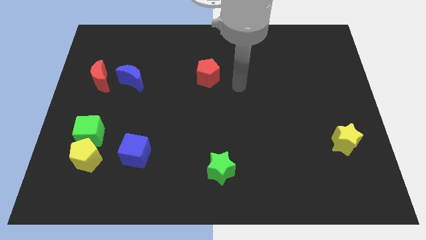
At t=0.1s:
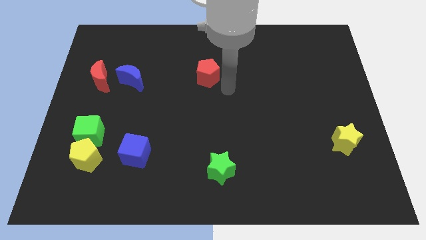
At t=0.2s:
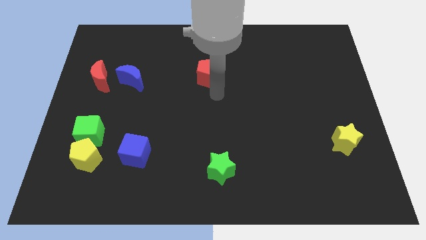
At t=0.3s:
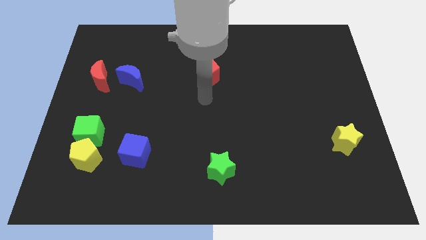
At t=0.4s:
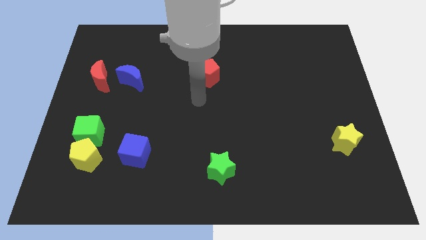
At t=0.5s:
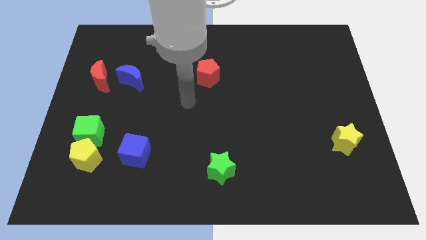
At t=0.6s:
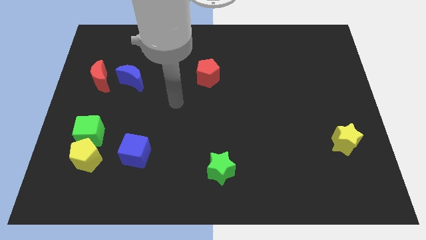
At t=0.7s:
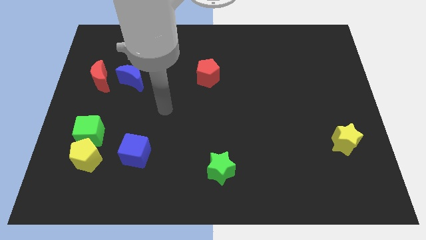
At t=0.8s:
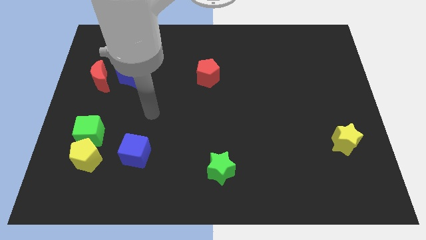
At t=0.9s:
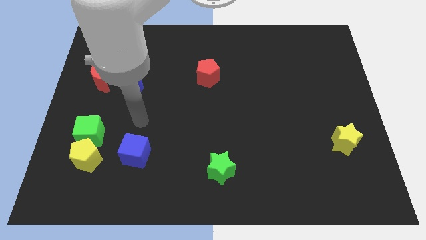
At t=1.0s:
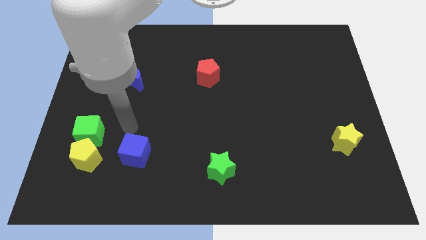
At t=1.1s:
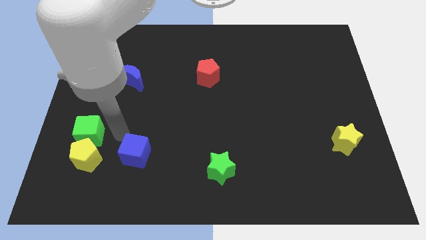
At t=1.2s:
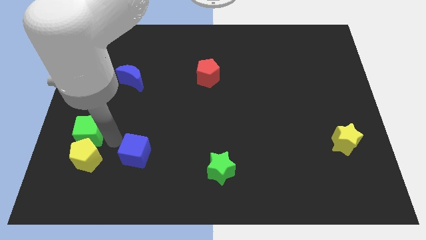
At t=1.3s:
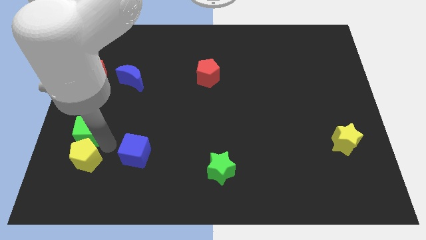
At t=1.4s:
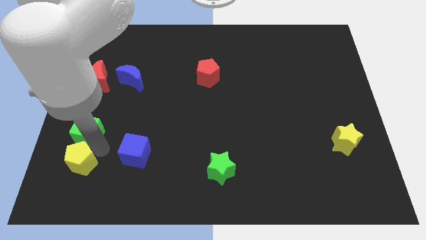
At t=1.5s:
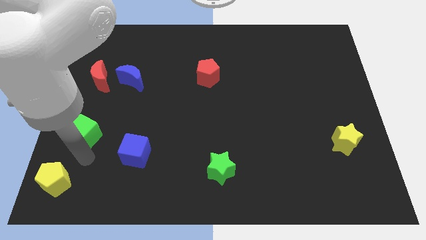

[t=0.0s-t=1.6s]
pull the green cube apart from the yellow pentagon

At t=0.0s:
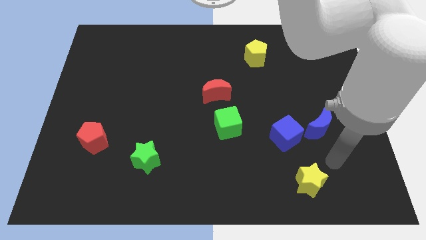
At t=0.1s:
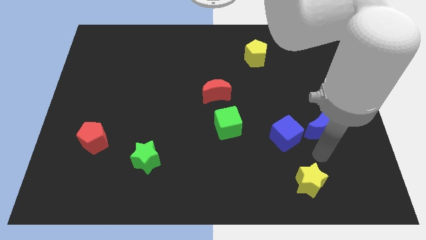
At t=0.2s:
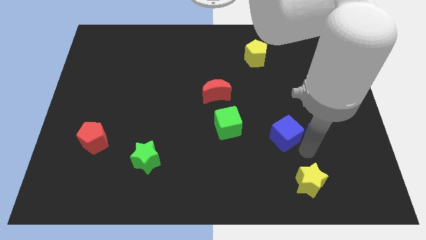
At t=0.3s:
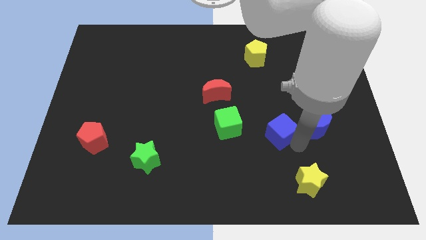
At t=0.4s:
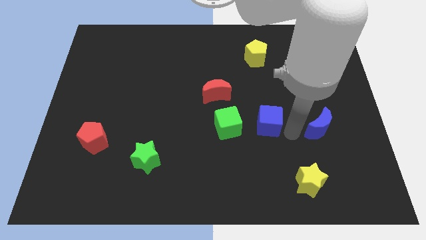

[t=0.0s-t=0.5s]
move the blue moon away from the blue cube

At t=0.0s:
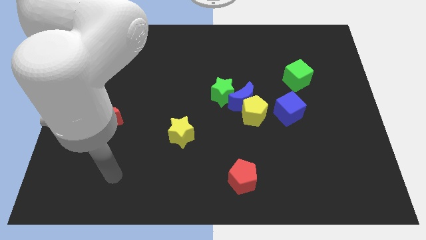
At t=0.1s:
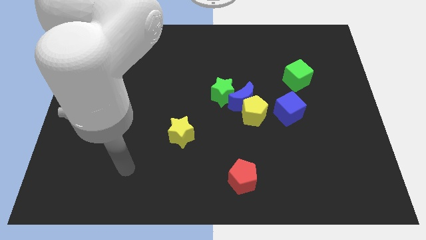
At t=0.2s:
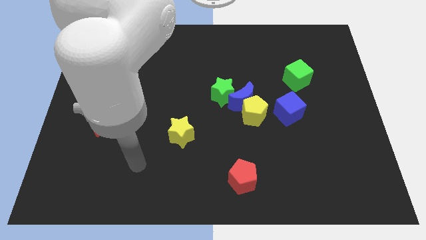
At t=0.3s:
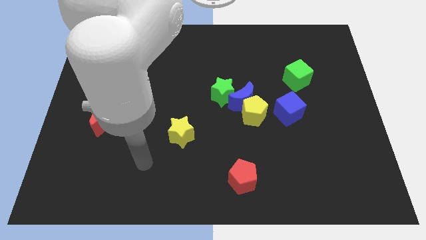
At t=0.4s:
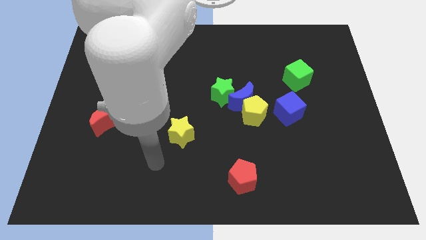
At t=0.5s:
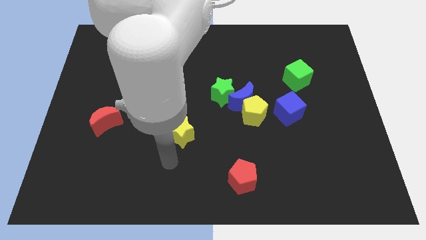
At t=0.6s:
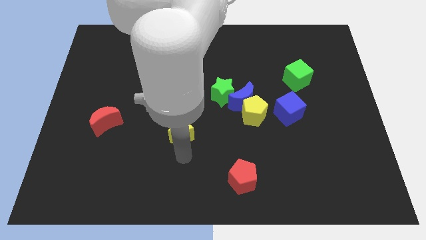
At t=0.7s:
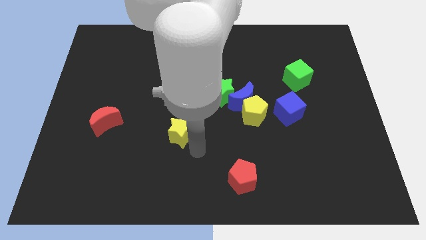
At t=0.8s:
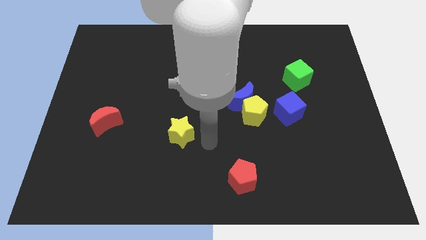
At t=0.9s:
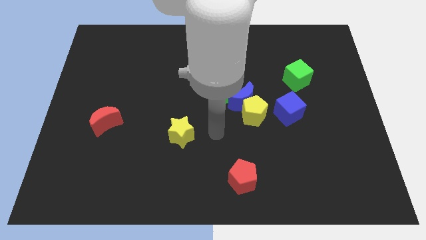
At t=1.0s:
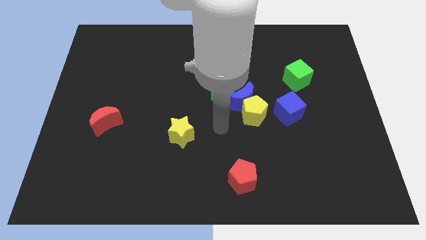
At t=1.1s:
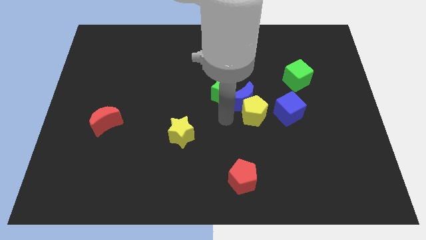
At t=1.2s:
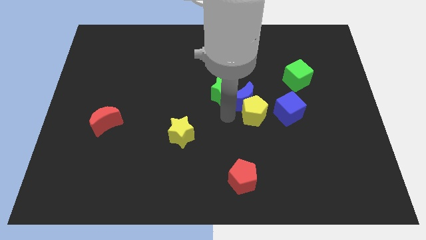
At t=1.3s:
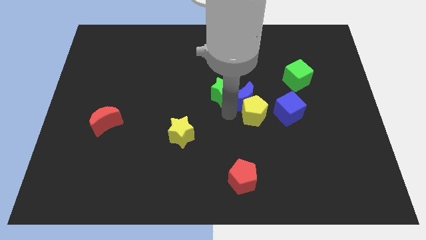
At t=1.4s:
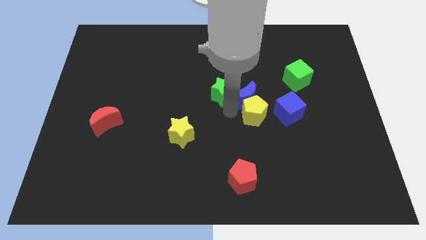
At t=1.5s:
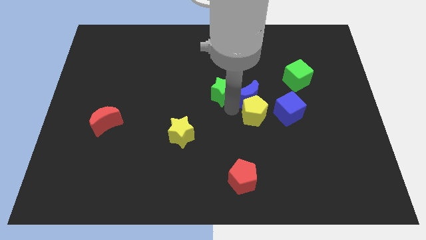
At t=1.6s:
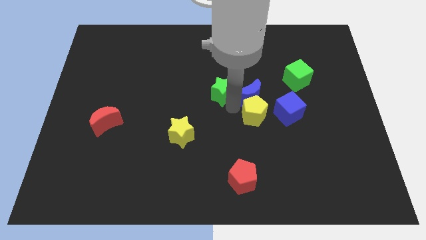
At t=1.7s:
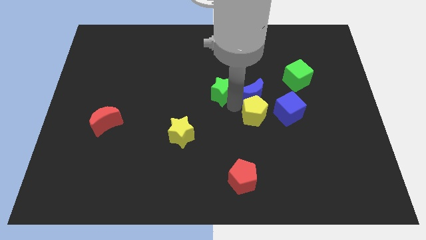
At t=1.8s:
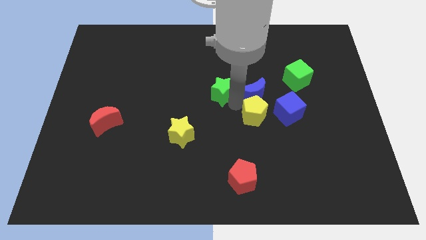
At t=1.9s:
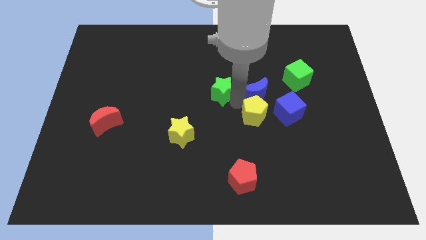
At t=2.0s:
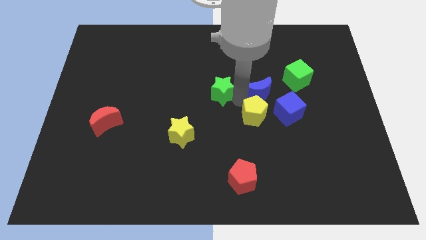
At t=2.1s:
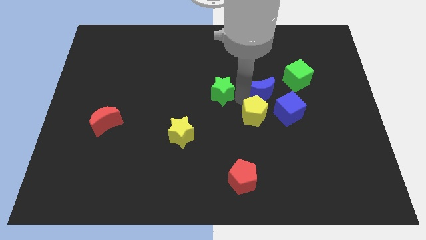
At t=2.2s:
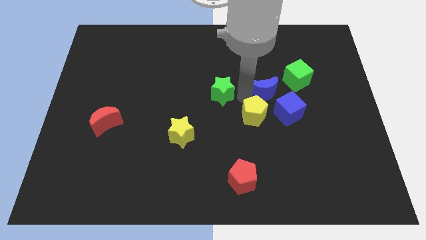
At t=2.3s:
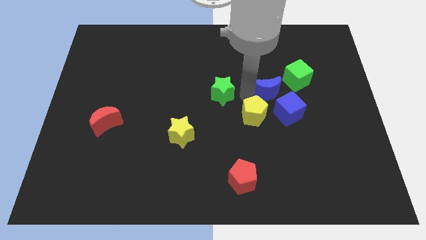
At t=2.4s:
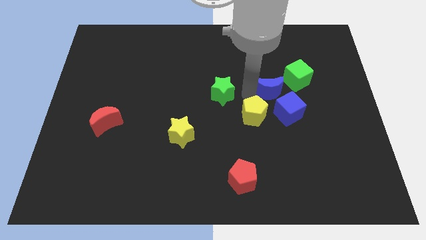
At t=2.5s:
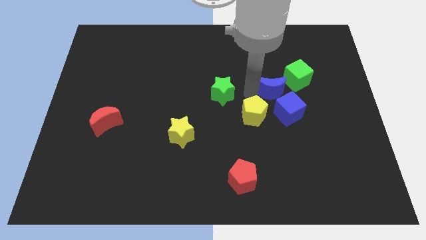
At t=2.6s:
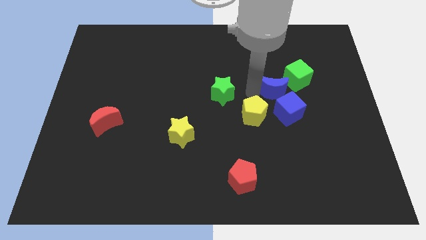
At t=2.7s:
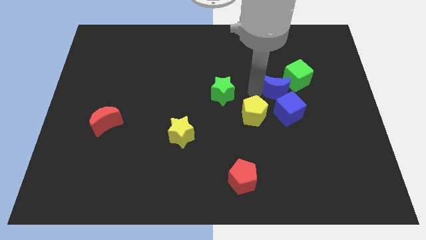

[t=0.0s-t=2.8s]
separate the blue moon from the yellow pentagon and green star

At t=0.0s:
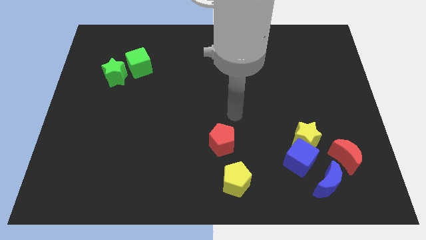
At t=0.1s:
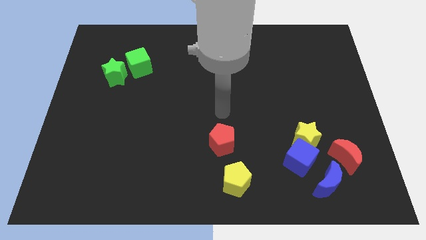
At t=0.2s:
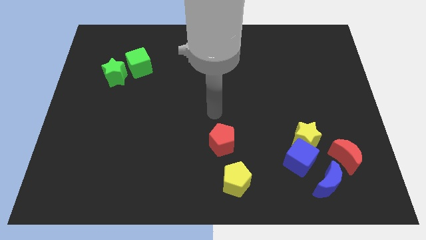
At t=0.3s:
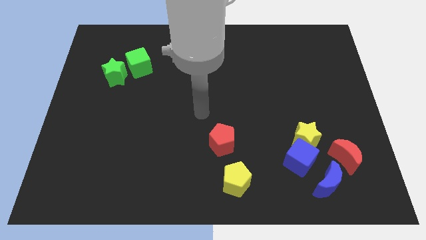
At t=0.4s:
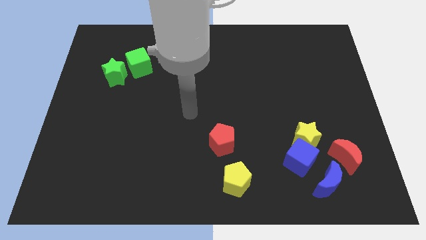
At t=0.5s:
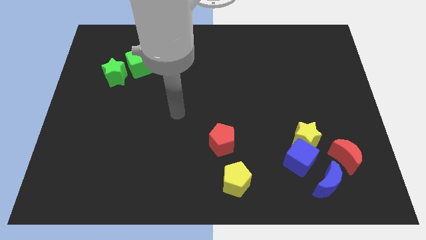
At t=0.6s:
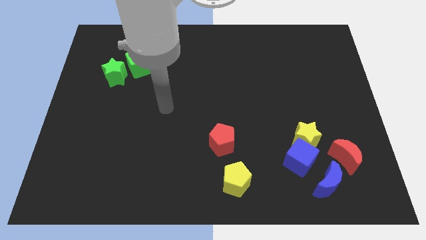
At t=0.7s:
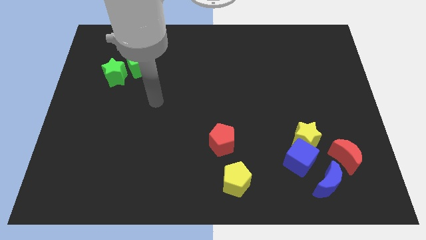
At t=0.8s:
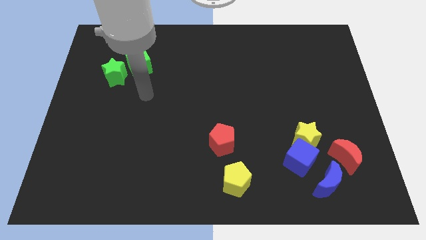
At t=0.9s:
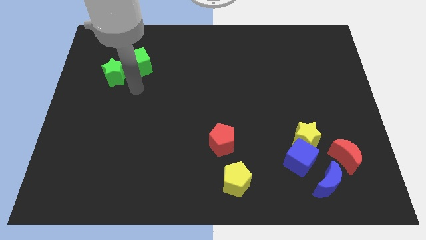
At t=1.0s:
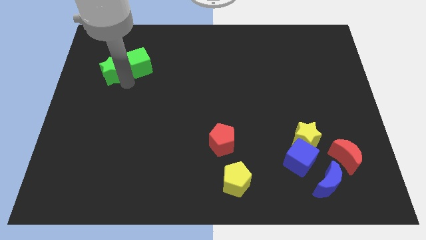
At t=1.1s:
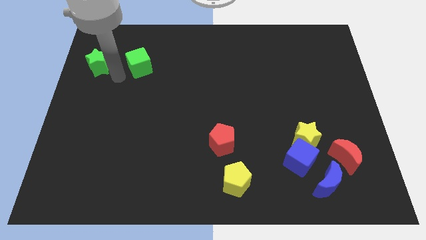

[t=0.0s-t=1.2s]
pull the green cube apart from the green star

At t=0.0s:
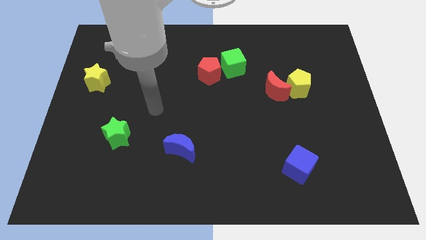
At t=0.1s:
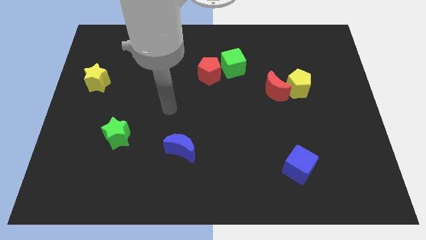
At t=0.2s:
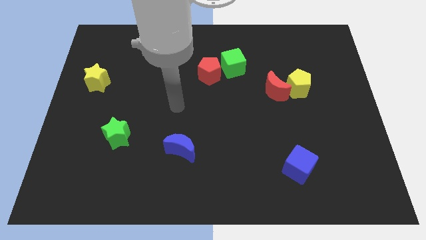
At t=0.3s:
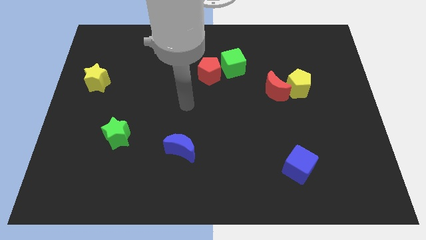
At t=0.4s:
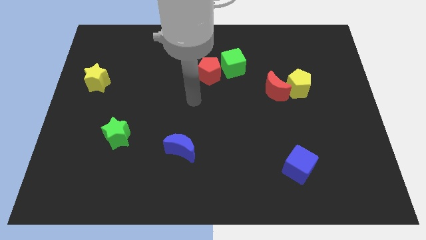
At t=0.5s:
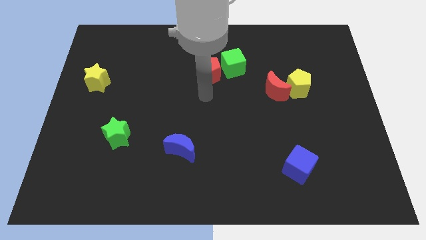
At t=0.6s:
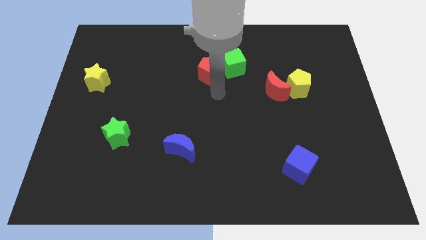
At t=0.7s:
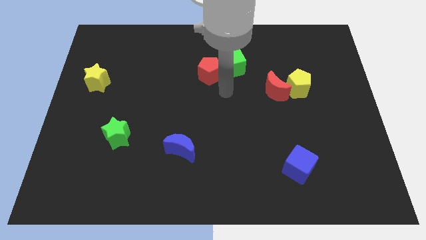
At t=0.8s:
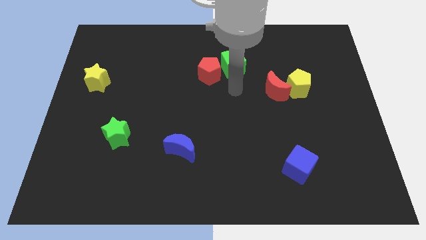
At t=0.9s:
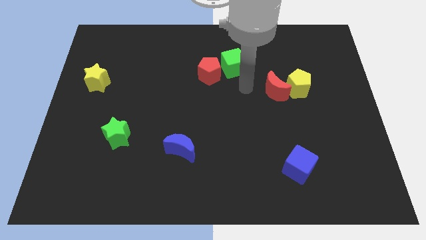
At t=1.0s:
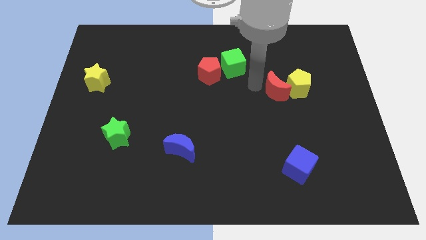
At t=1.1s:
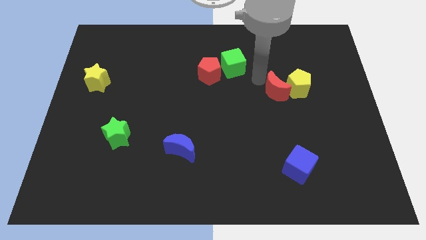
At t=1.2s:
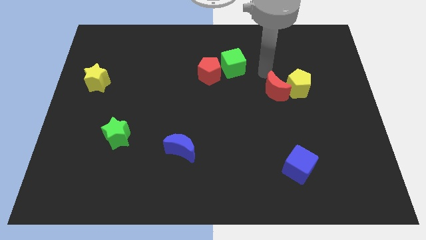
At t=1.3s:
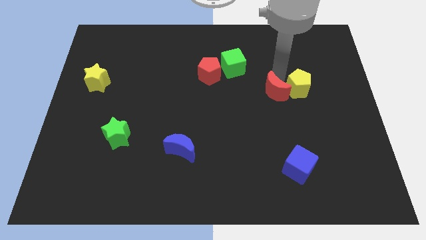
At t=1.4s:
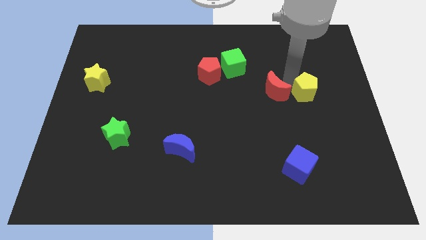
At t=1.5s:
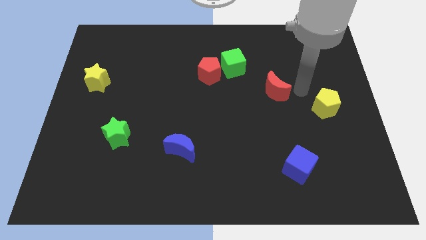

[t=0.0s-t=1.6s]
separate the red moon from the yellow pentagon

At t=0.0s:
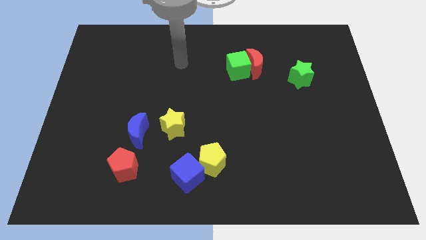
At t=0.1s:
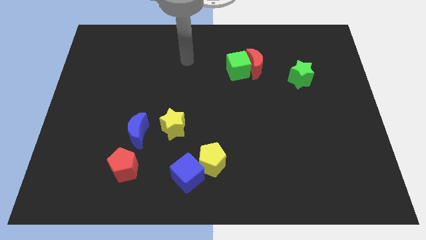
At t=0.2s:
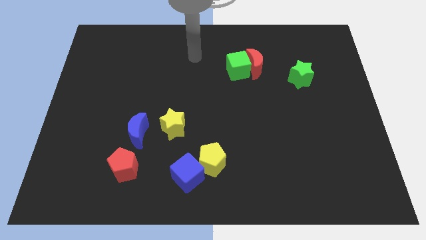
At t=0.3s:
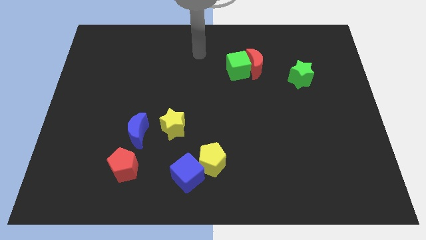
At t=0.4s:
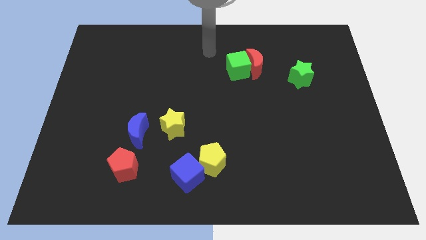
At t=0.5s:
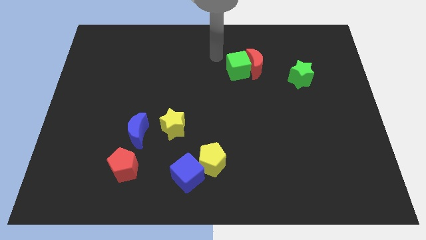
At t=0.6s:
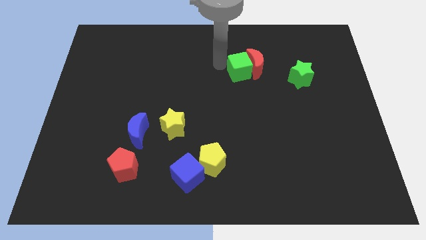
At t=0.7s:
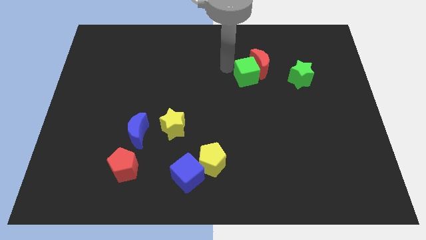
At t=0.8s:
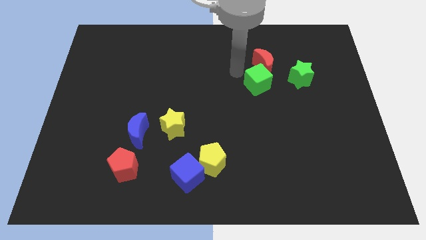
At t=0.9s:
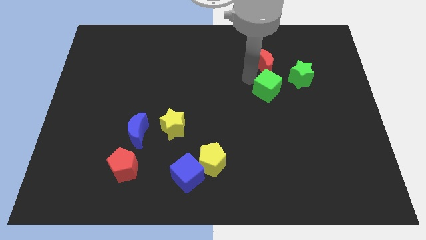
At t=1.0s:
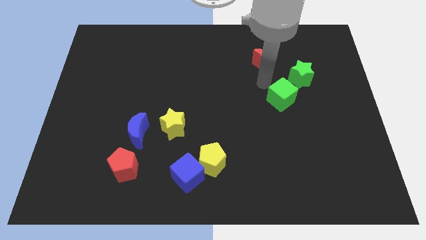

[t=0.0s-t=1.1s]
pull the red moon apart from the green cube

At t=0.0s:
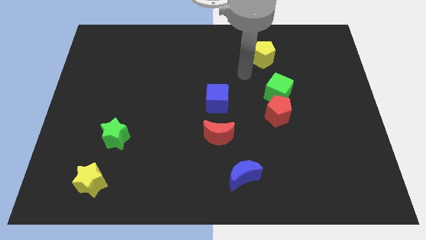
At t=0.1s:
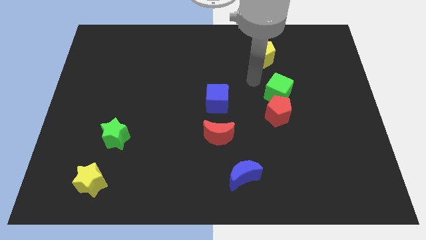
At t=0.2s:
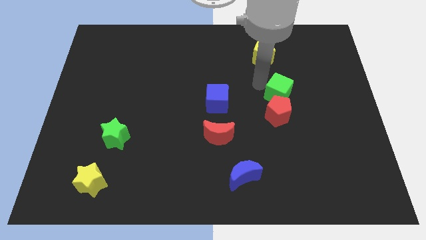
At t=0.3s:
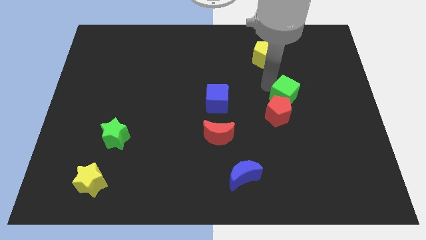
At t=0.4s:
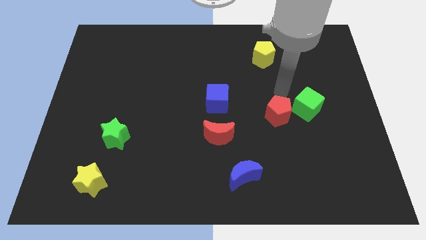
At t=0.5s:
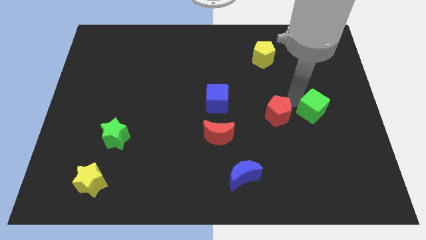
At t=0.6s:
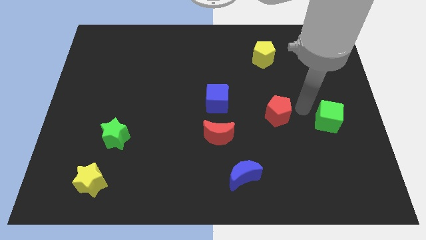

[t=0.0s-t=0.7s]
move the red pentagon away from the green cube
